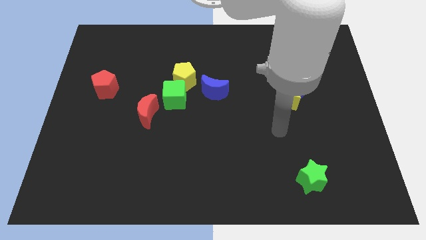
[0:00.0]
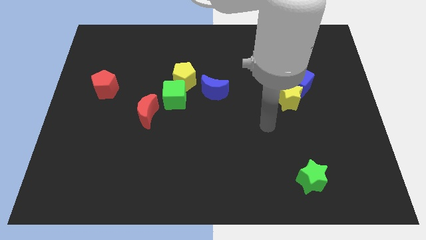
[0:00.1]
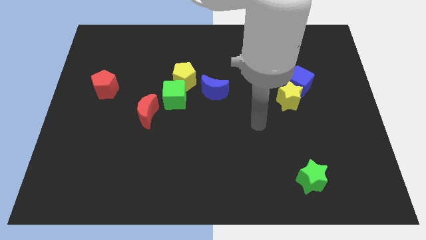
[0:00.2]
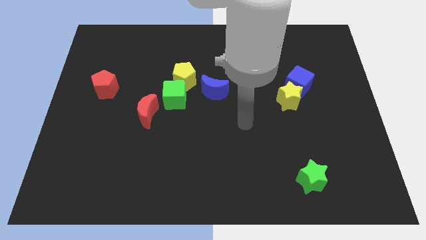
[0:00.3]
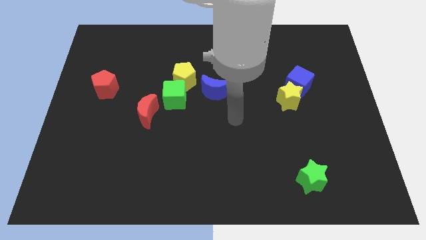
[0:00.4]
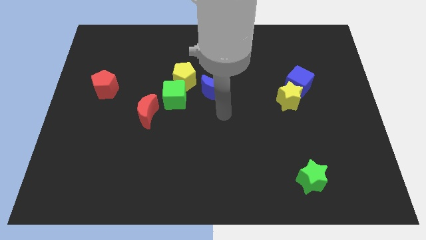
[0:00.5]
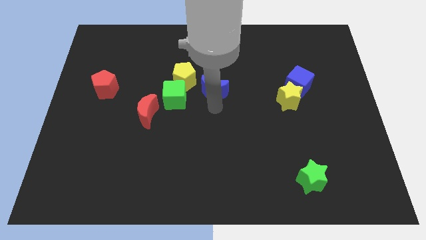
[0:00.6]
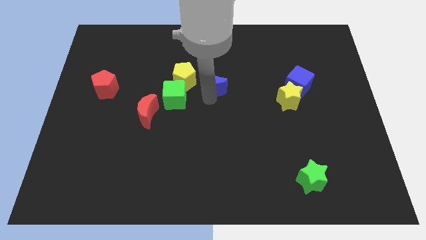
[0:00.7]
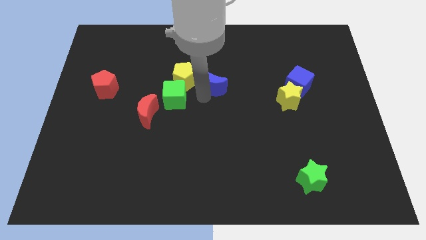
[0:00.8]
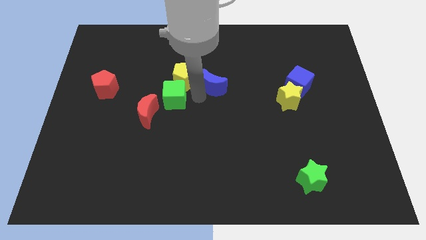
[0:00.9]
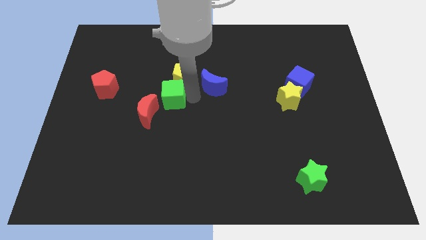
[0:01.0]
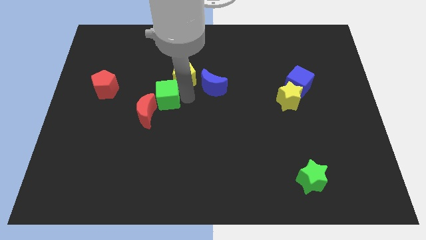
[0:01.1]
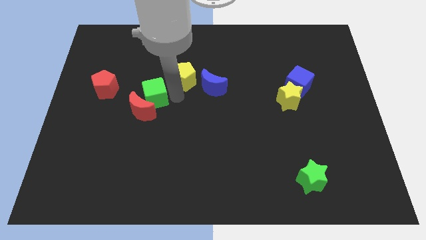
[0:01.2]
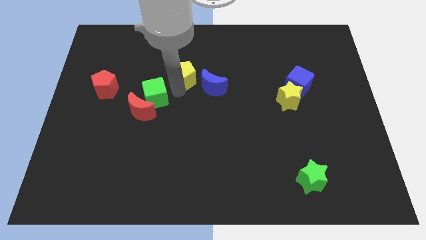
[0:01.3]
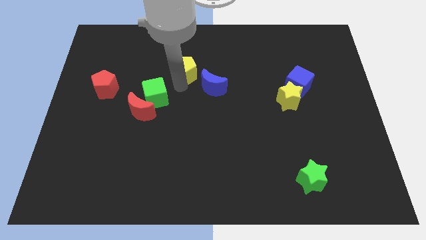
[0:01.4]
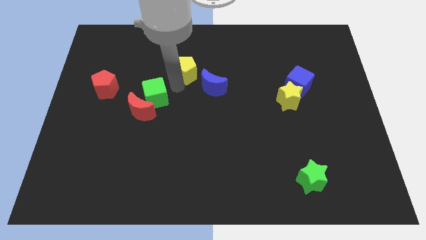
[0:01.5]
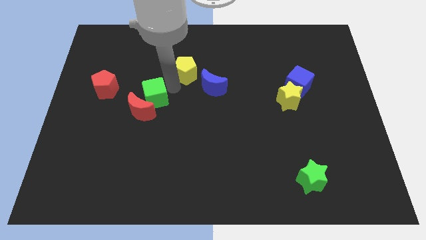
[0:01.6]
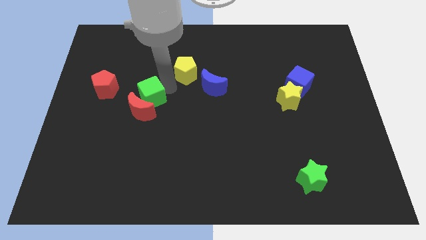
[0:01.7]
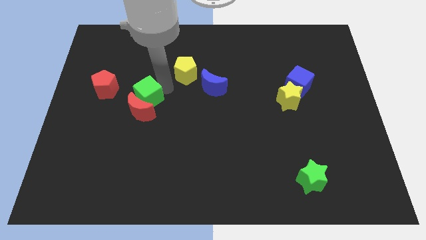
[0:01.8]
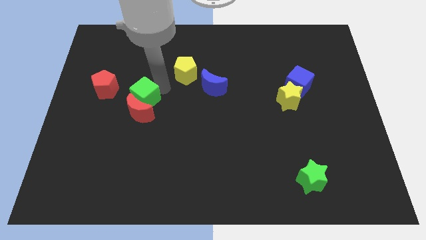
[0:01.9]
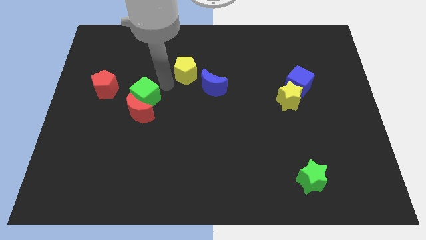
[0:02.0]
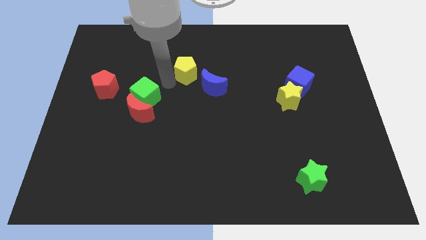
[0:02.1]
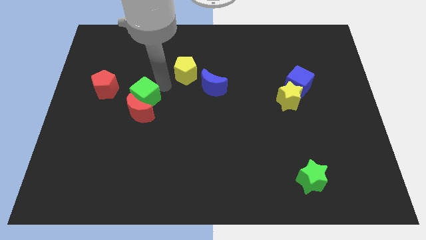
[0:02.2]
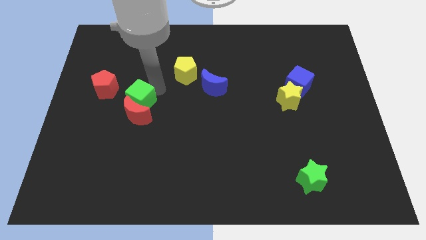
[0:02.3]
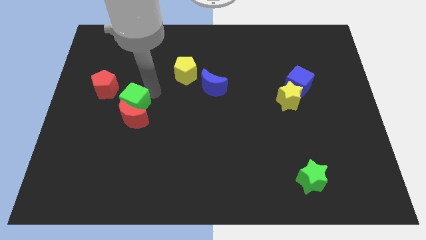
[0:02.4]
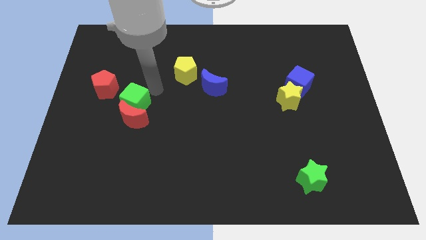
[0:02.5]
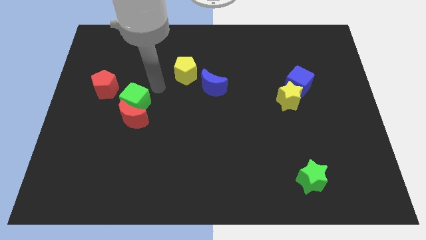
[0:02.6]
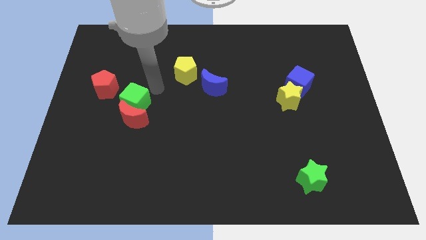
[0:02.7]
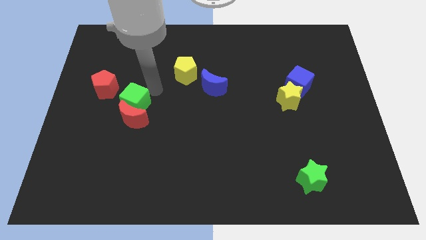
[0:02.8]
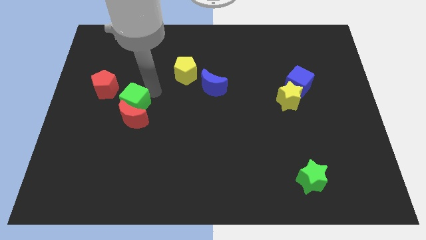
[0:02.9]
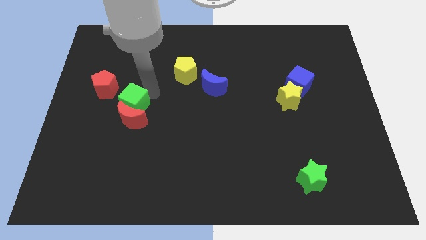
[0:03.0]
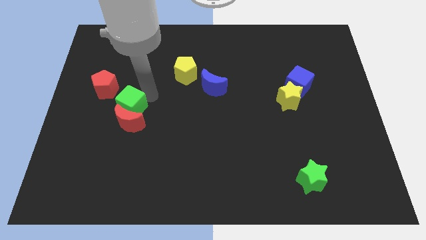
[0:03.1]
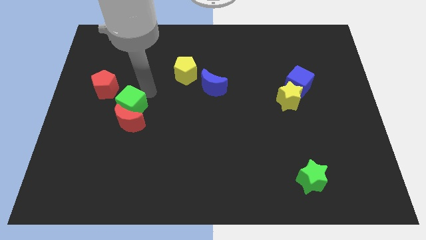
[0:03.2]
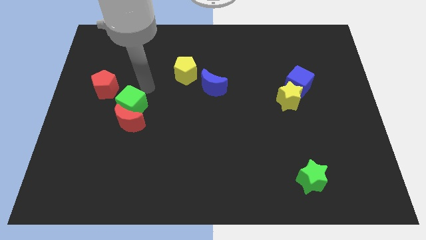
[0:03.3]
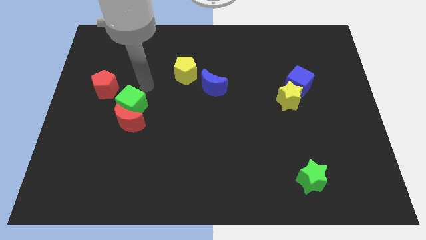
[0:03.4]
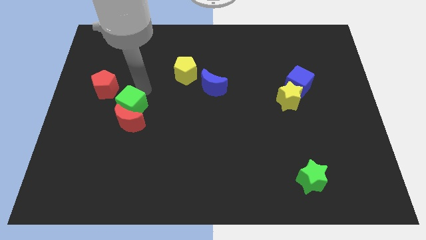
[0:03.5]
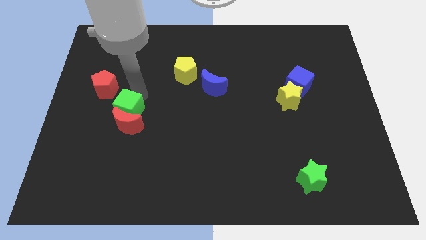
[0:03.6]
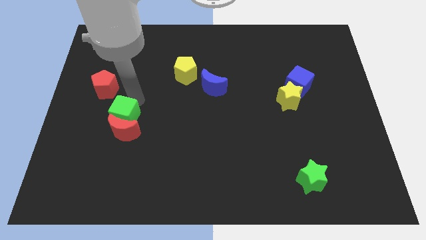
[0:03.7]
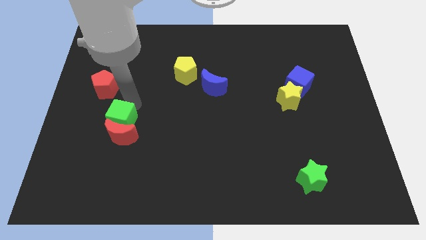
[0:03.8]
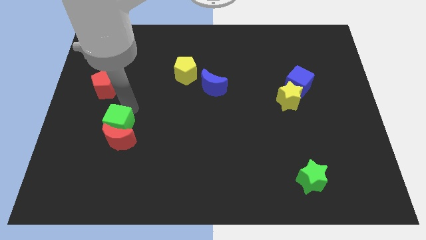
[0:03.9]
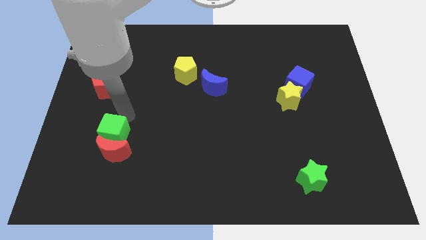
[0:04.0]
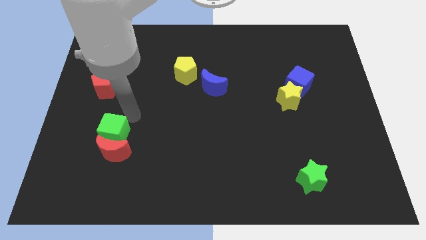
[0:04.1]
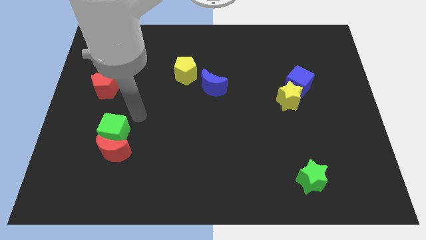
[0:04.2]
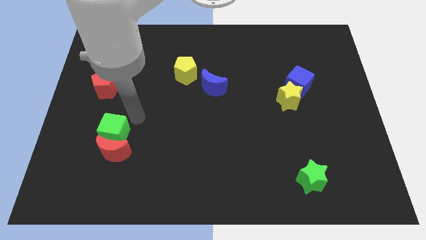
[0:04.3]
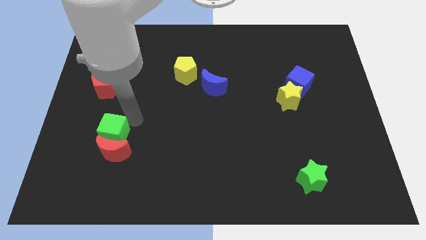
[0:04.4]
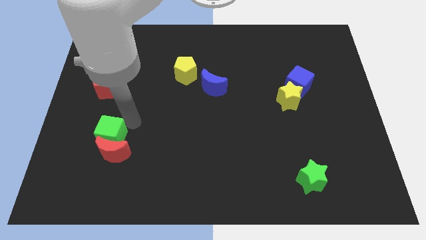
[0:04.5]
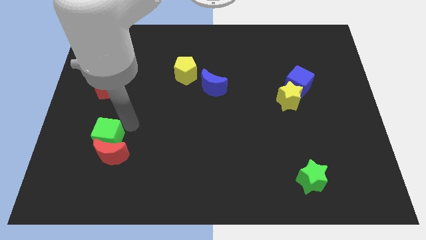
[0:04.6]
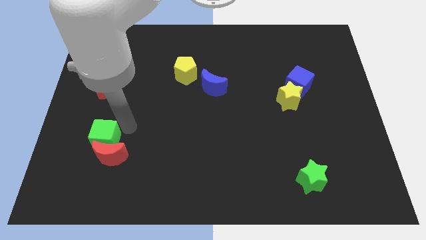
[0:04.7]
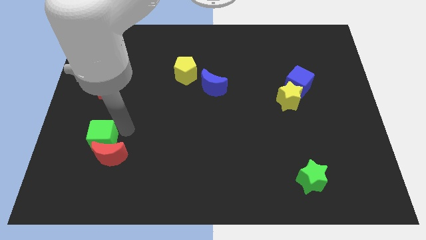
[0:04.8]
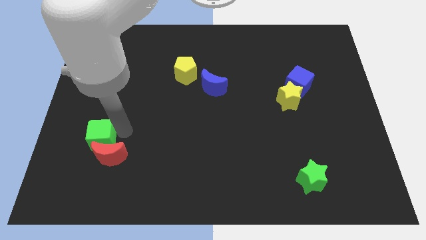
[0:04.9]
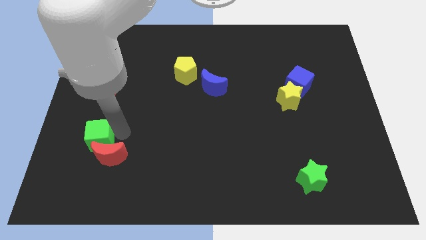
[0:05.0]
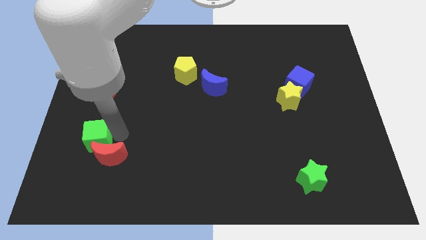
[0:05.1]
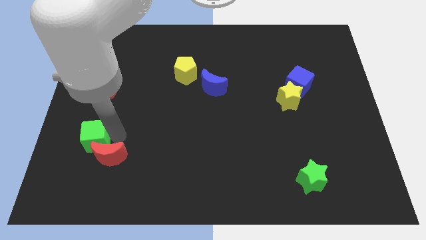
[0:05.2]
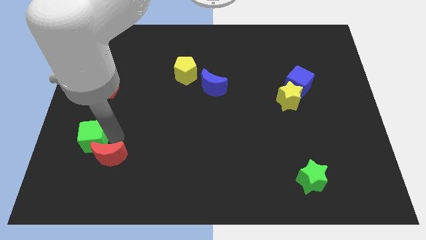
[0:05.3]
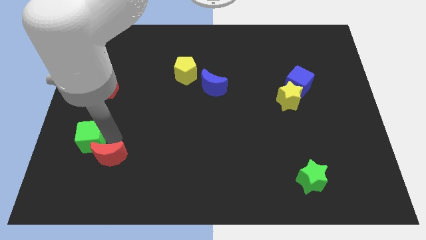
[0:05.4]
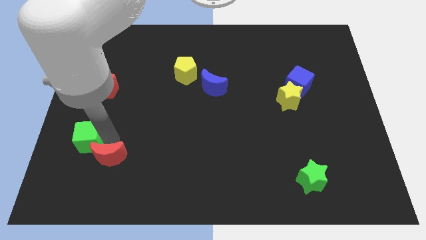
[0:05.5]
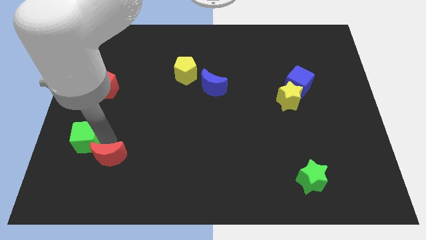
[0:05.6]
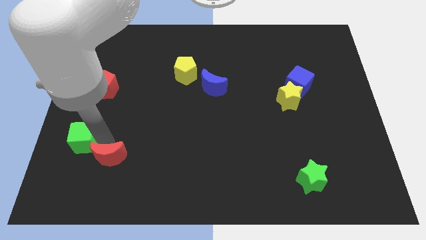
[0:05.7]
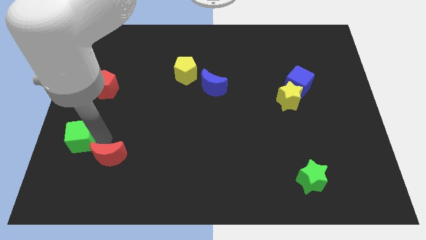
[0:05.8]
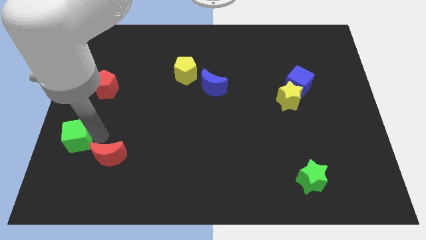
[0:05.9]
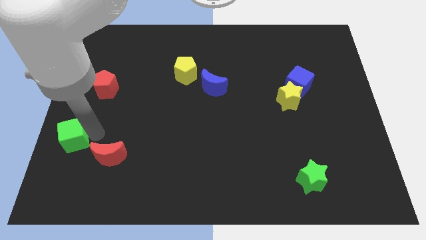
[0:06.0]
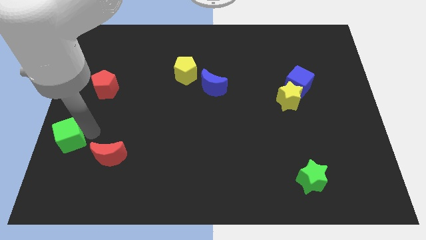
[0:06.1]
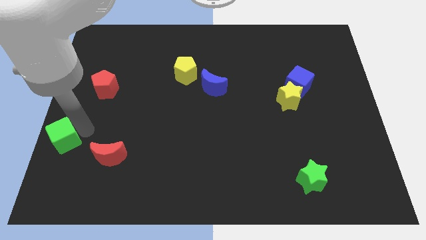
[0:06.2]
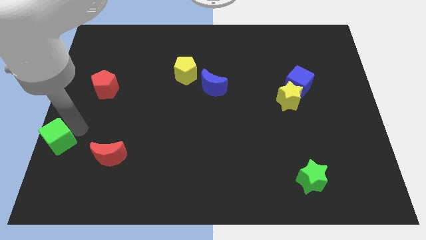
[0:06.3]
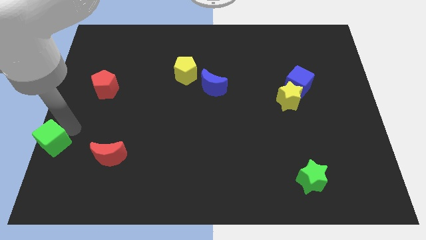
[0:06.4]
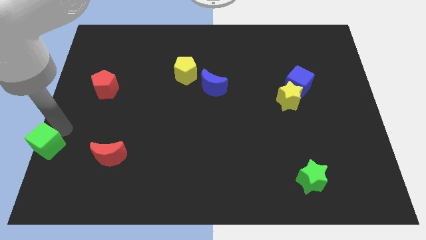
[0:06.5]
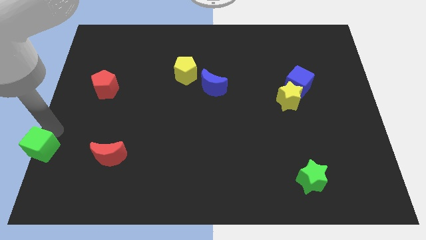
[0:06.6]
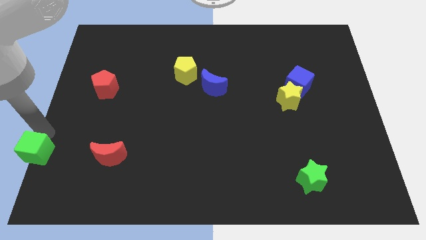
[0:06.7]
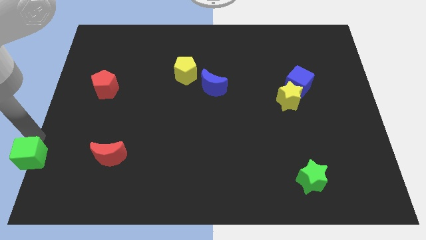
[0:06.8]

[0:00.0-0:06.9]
push the green cube to the bottom left corner
